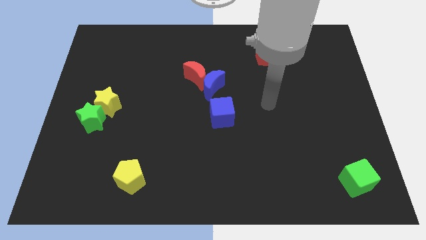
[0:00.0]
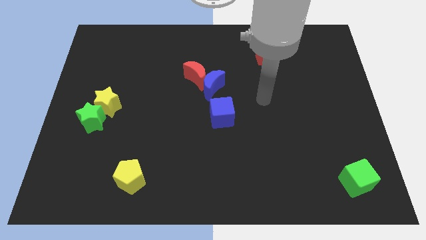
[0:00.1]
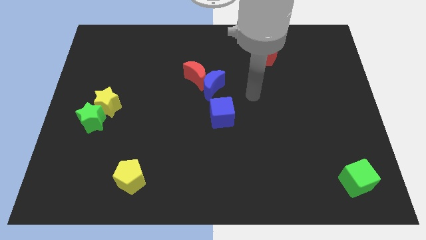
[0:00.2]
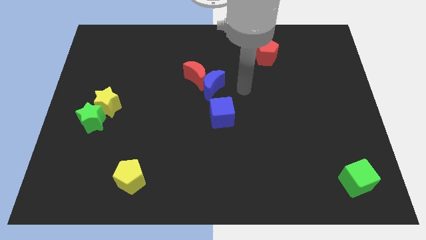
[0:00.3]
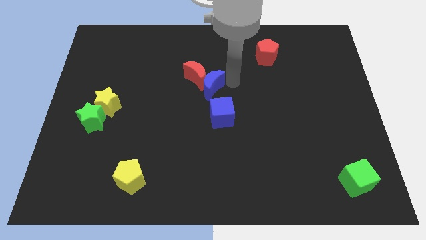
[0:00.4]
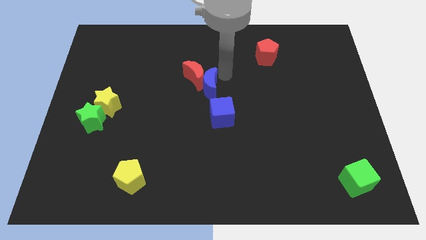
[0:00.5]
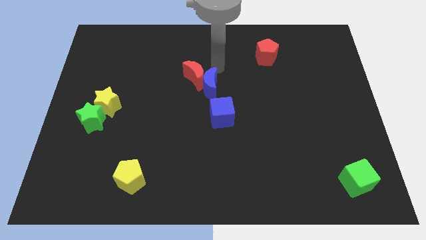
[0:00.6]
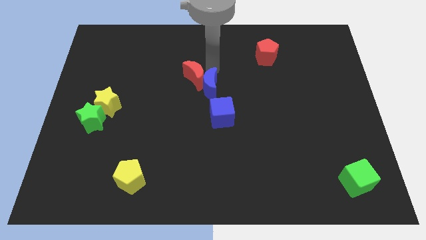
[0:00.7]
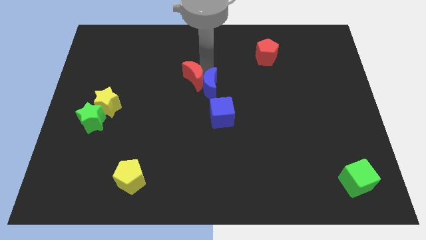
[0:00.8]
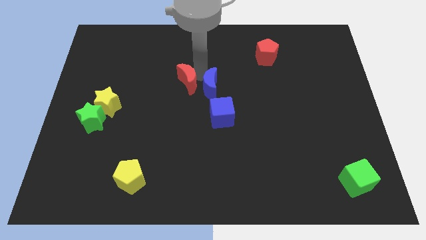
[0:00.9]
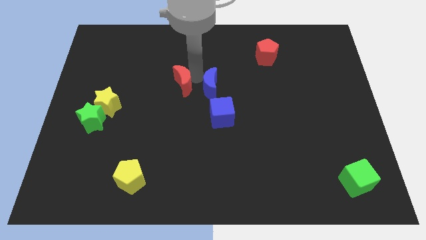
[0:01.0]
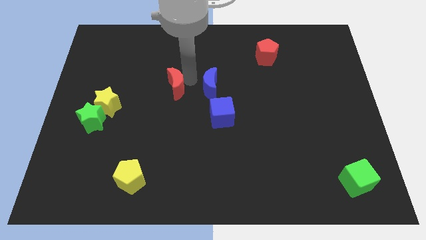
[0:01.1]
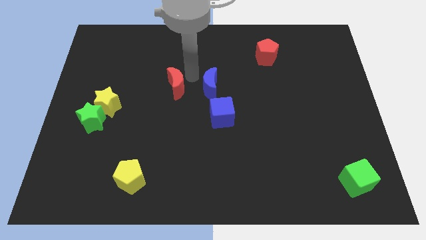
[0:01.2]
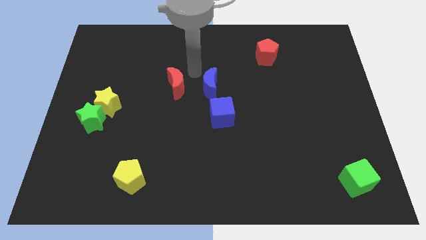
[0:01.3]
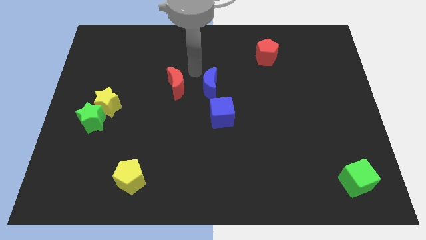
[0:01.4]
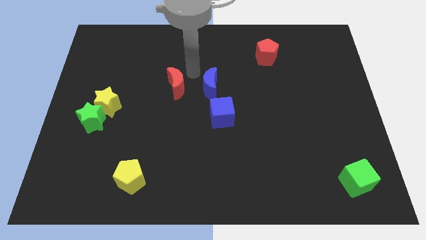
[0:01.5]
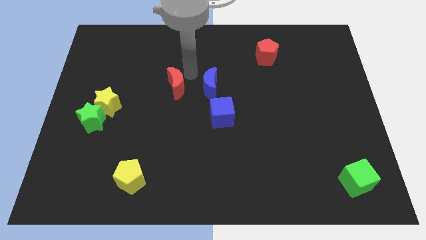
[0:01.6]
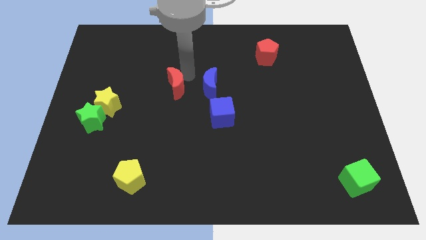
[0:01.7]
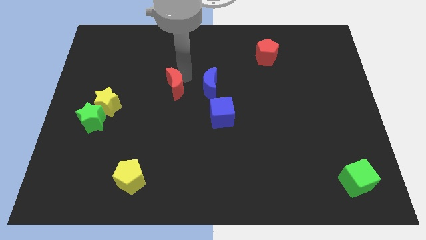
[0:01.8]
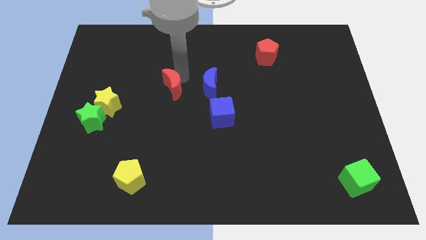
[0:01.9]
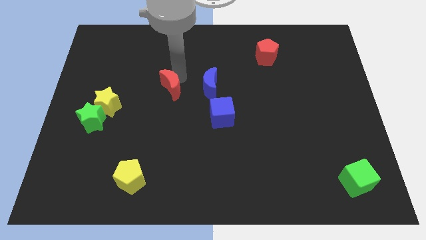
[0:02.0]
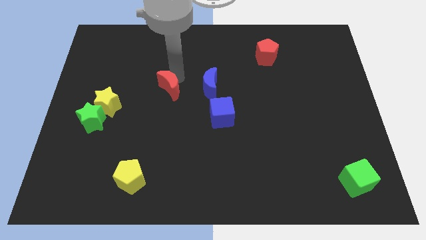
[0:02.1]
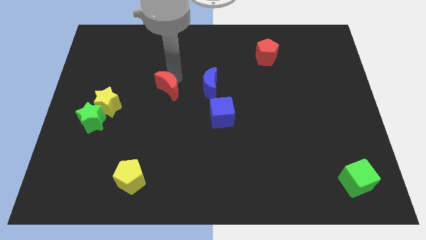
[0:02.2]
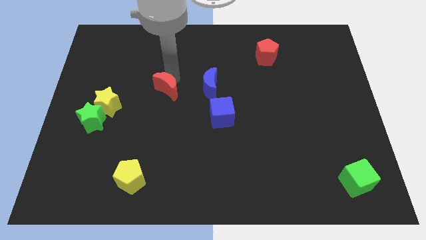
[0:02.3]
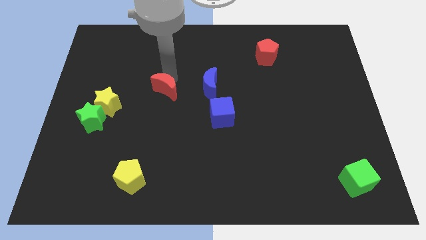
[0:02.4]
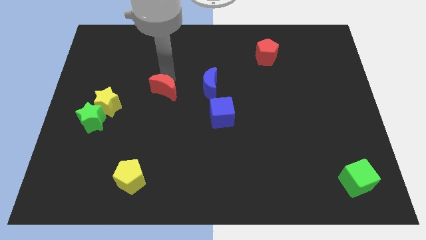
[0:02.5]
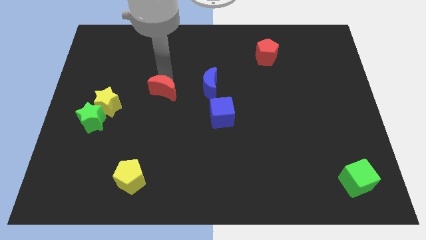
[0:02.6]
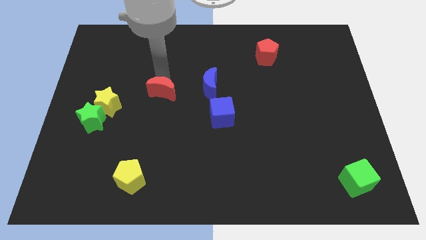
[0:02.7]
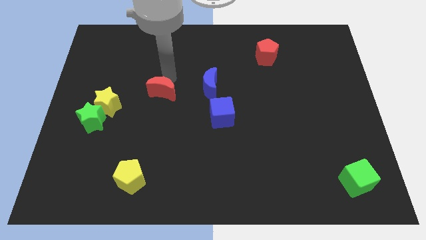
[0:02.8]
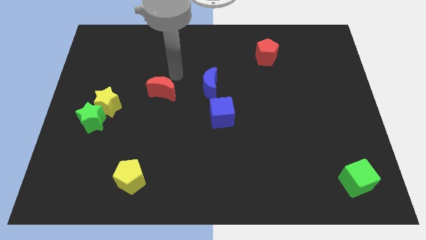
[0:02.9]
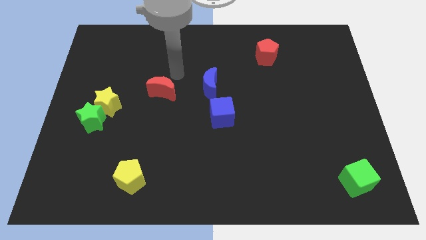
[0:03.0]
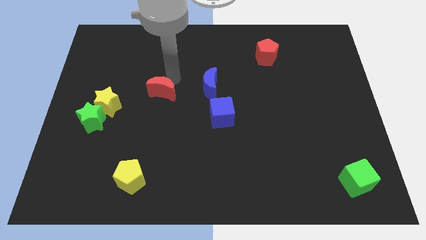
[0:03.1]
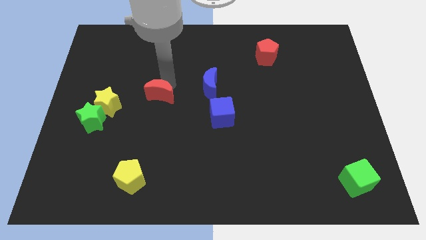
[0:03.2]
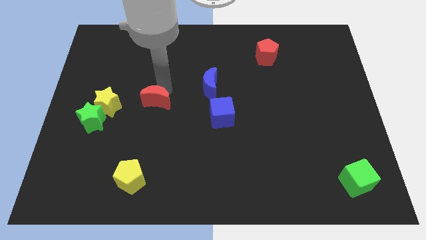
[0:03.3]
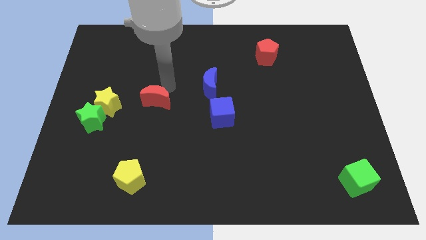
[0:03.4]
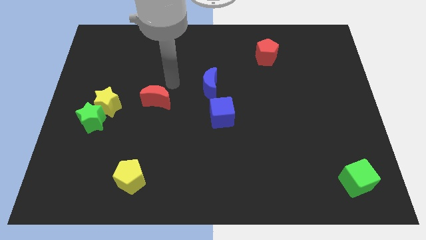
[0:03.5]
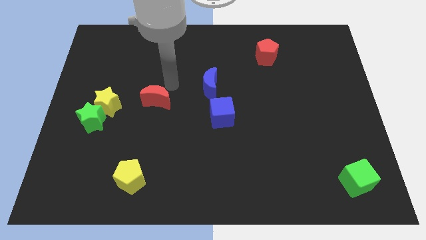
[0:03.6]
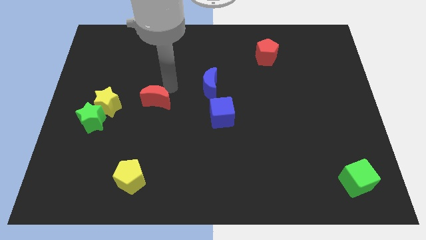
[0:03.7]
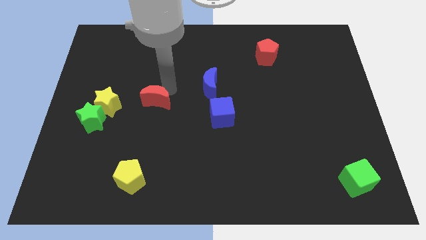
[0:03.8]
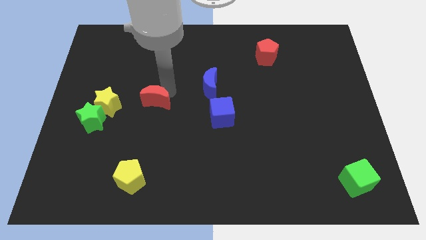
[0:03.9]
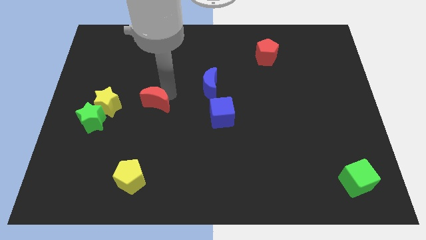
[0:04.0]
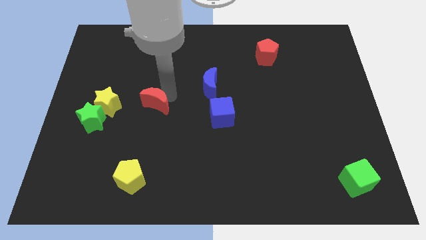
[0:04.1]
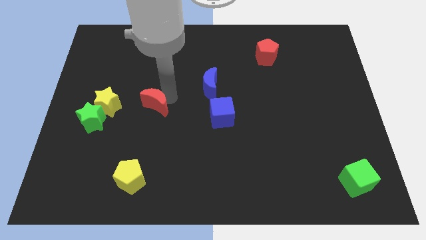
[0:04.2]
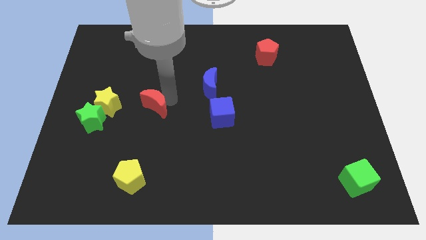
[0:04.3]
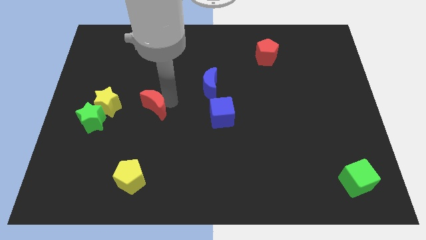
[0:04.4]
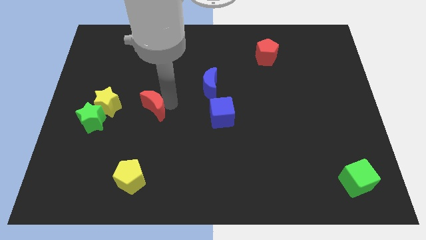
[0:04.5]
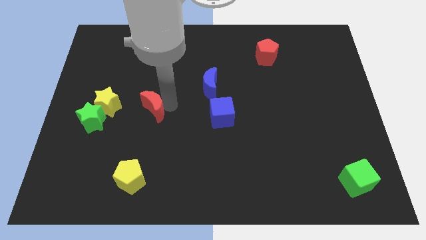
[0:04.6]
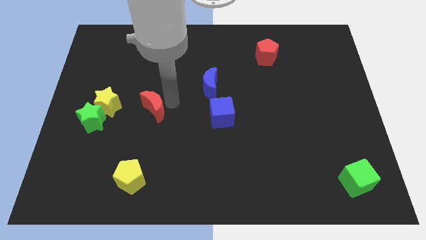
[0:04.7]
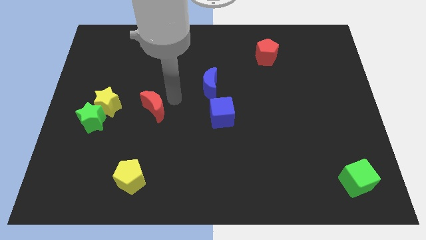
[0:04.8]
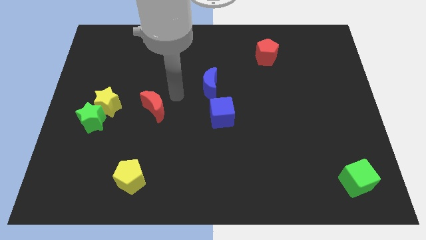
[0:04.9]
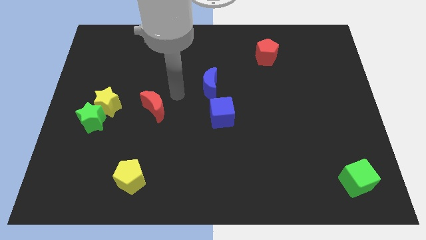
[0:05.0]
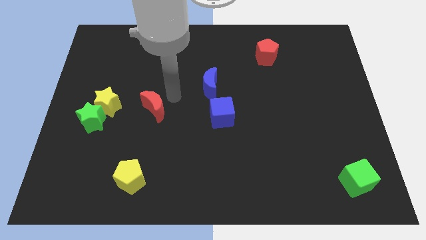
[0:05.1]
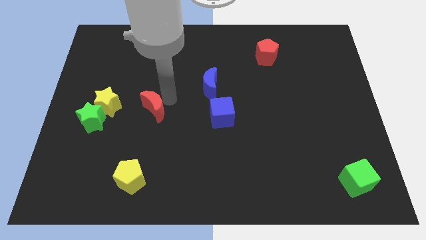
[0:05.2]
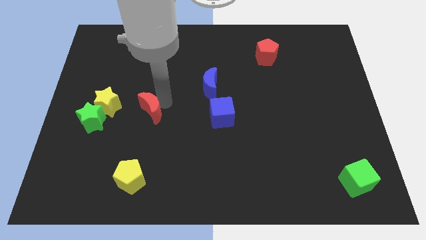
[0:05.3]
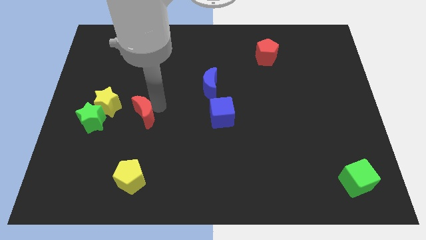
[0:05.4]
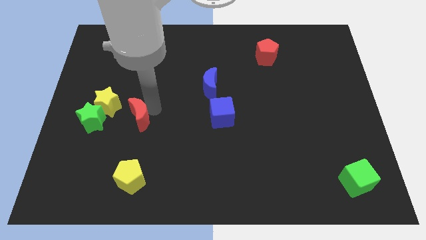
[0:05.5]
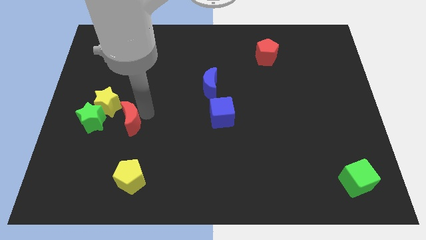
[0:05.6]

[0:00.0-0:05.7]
slide the red moon down and then left

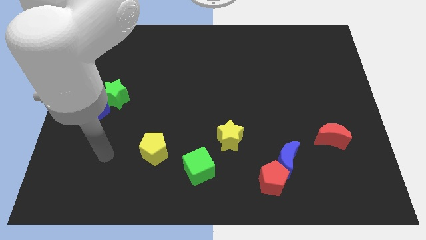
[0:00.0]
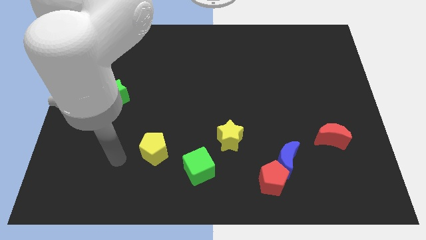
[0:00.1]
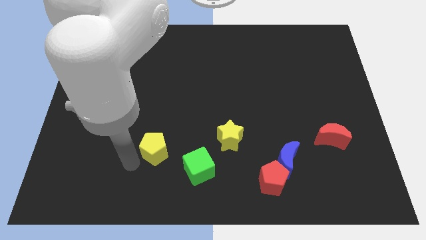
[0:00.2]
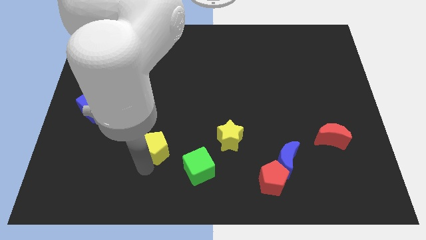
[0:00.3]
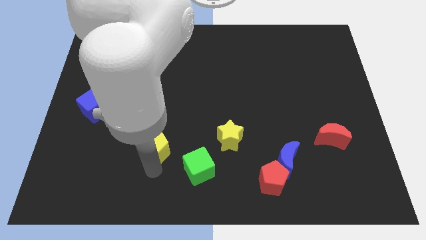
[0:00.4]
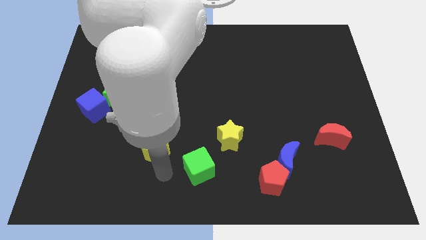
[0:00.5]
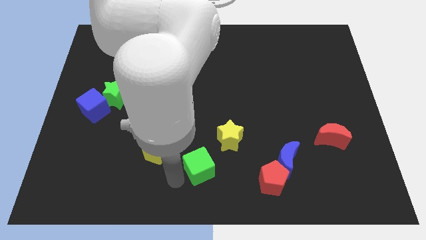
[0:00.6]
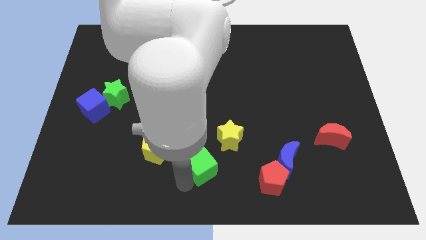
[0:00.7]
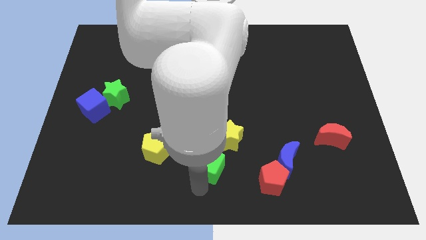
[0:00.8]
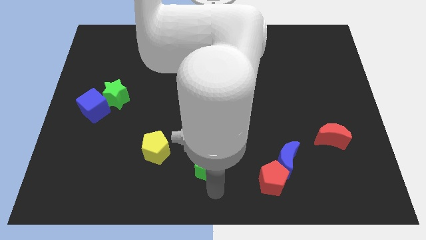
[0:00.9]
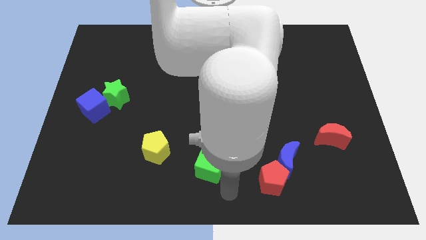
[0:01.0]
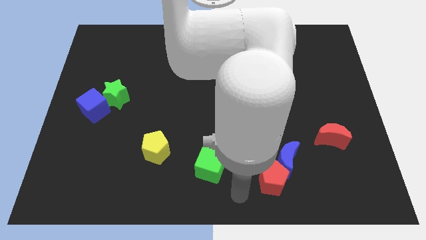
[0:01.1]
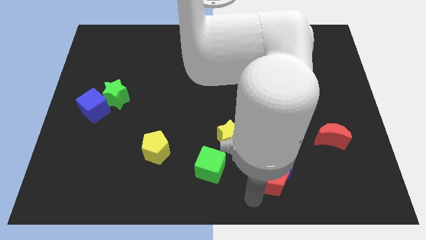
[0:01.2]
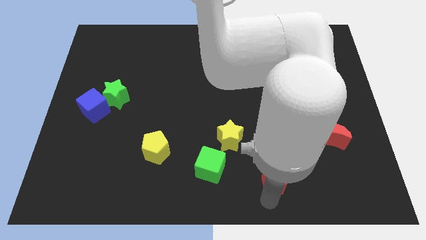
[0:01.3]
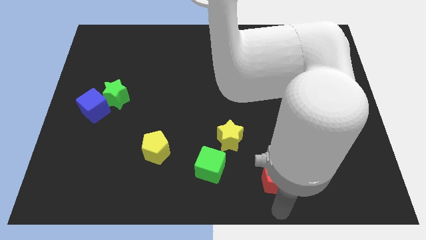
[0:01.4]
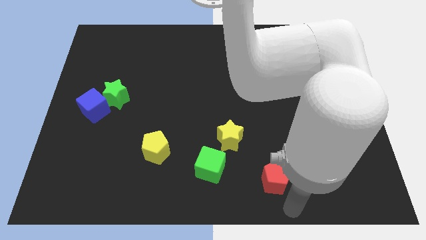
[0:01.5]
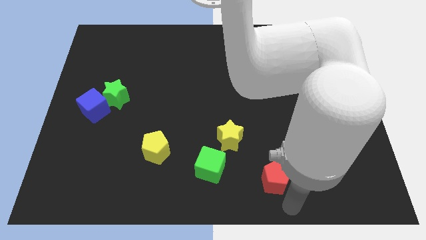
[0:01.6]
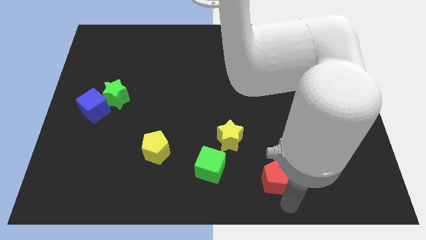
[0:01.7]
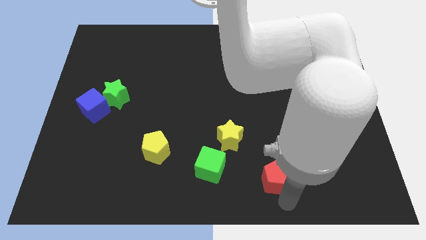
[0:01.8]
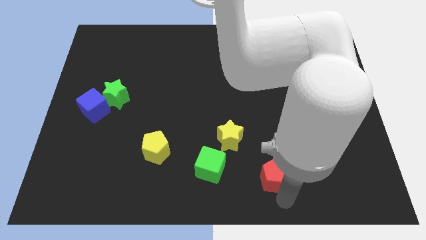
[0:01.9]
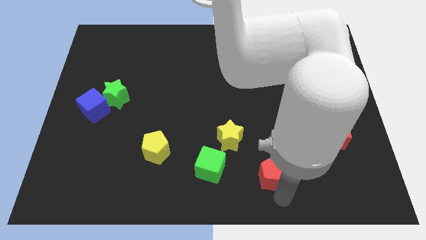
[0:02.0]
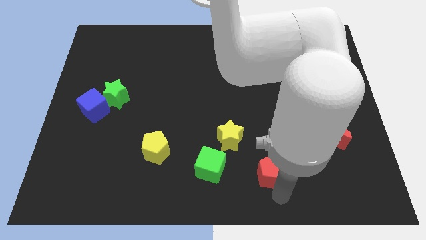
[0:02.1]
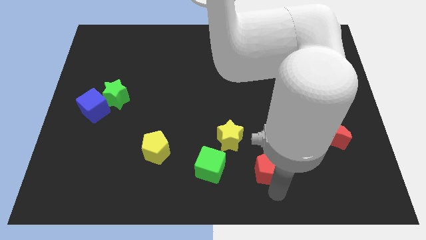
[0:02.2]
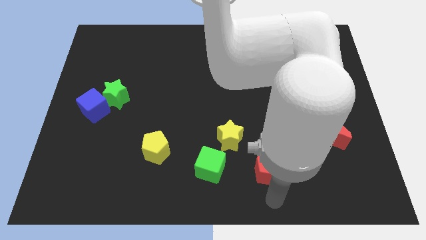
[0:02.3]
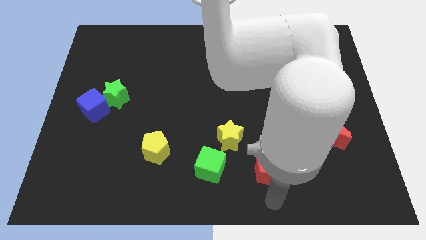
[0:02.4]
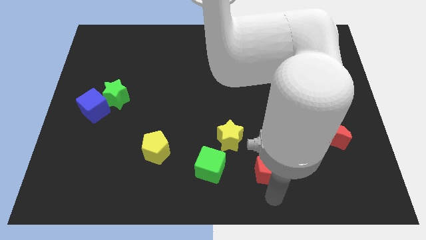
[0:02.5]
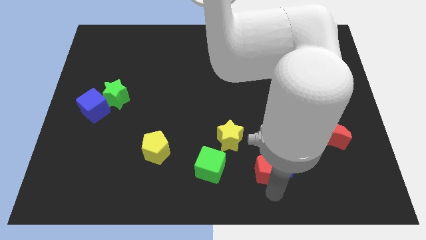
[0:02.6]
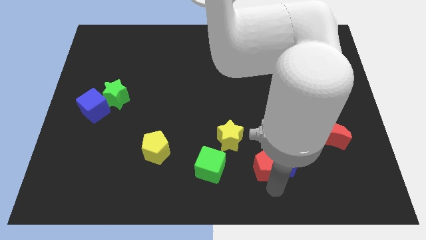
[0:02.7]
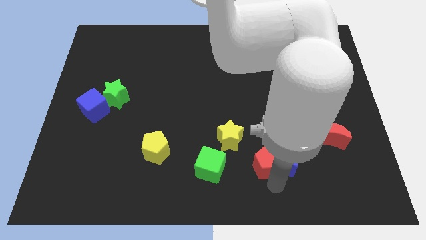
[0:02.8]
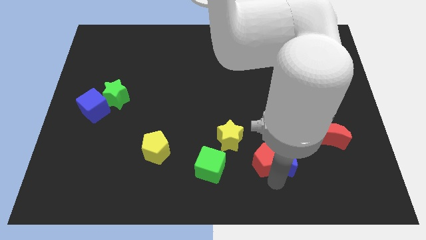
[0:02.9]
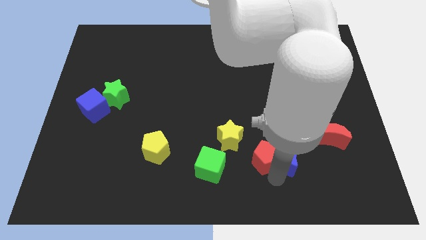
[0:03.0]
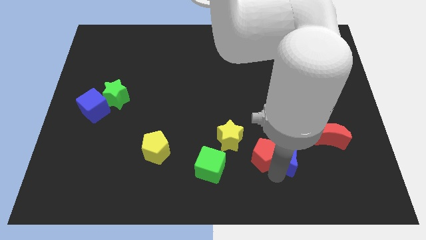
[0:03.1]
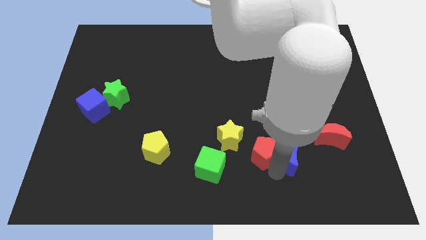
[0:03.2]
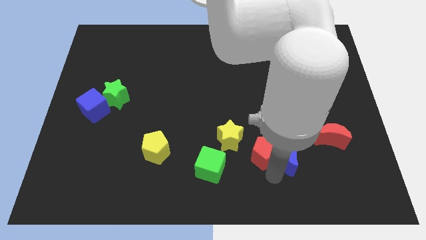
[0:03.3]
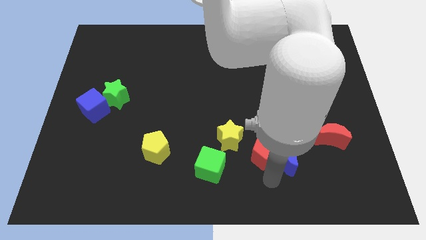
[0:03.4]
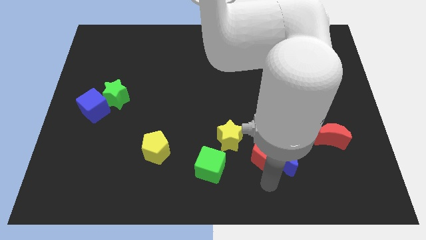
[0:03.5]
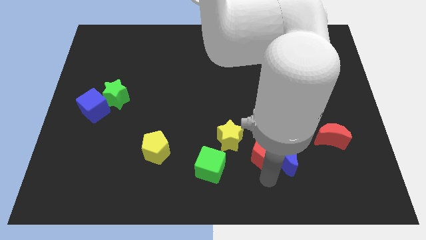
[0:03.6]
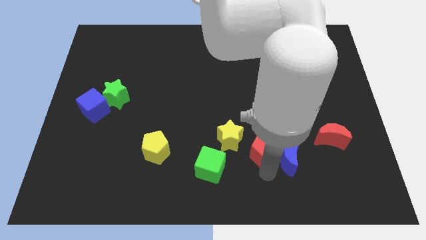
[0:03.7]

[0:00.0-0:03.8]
move the red pentagon upwards a bit
